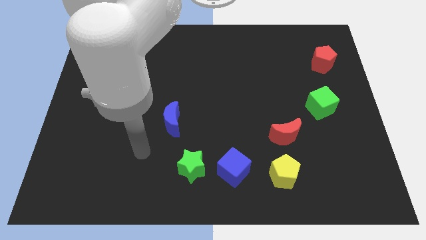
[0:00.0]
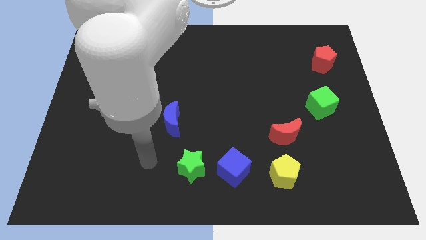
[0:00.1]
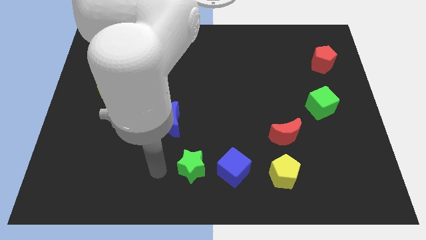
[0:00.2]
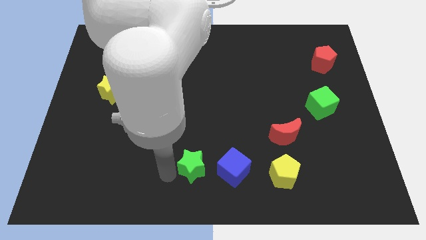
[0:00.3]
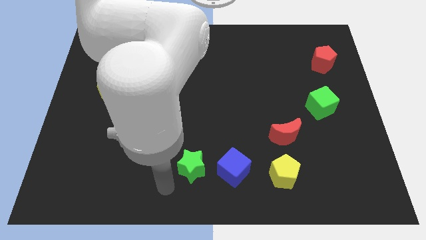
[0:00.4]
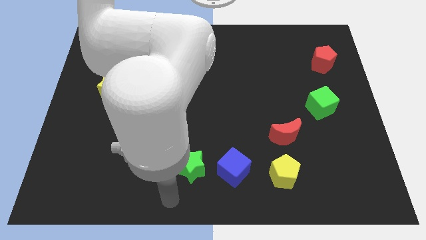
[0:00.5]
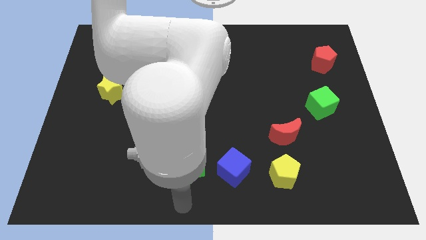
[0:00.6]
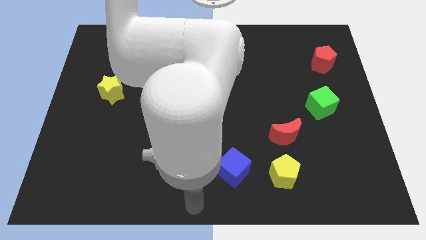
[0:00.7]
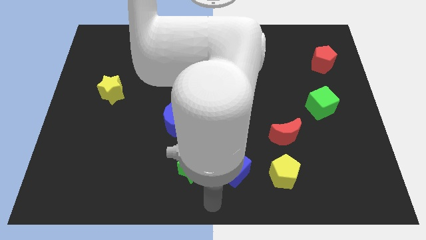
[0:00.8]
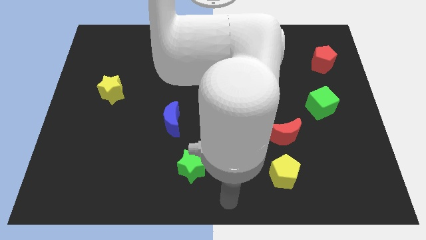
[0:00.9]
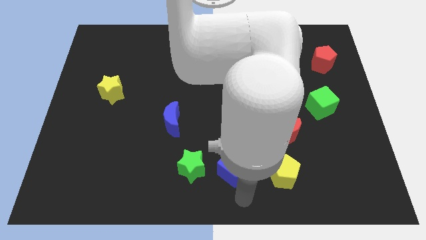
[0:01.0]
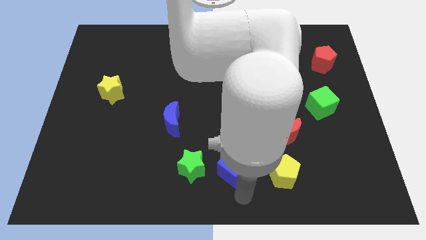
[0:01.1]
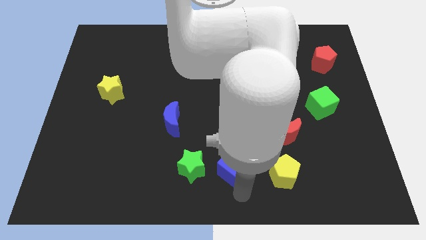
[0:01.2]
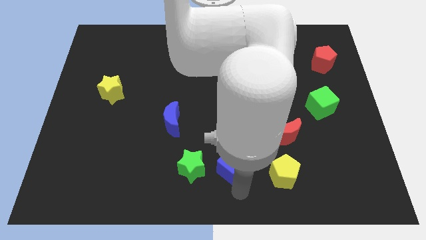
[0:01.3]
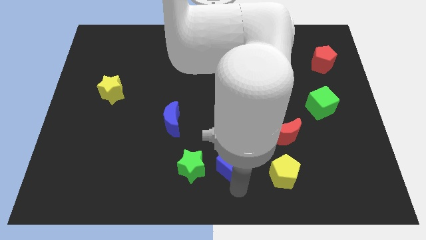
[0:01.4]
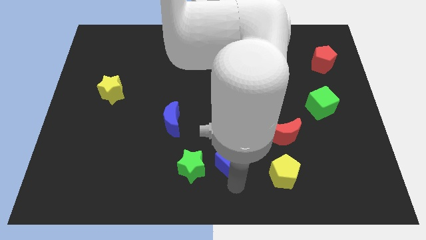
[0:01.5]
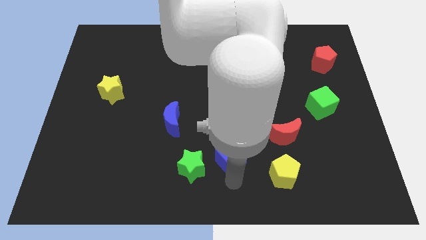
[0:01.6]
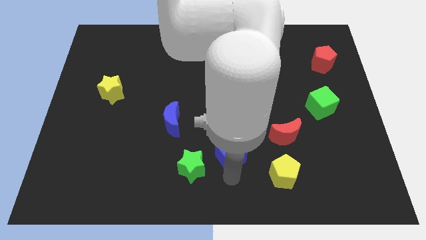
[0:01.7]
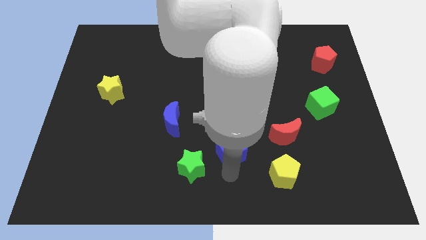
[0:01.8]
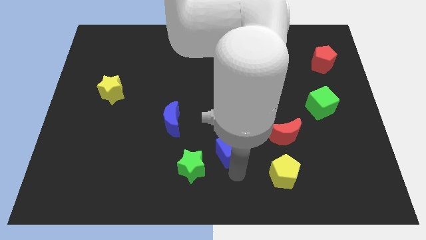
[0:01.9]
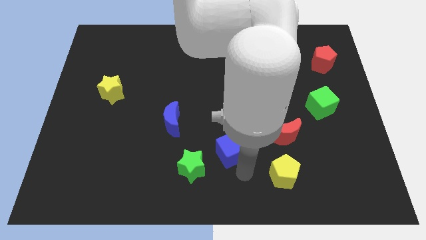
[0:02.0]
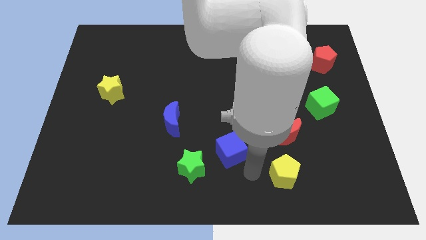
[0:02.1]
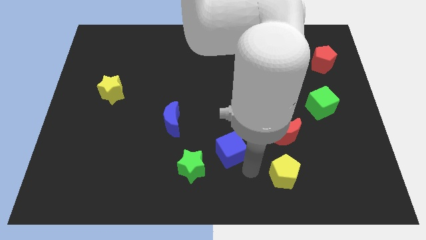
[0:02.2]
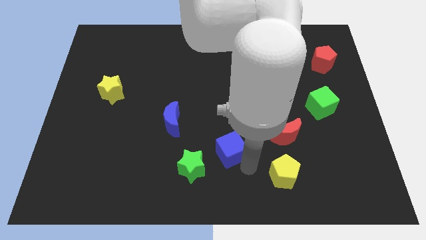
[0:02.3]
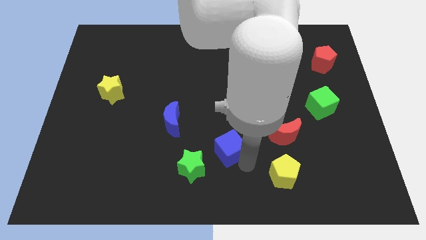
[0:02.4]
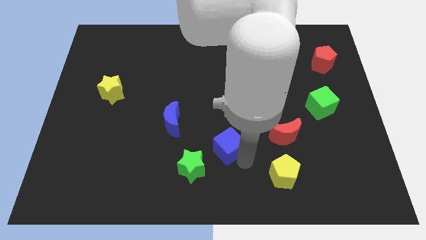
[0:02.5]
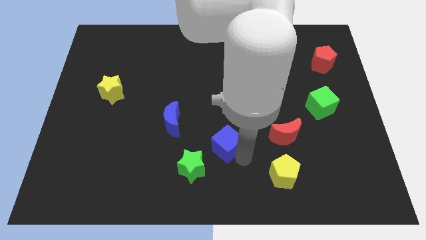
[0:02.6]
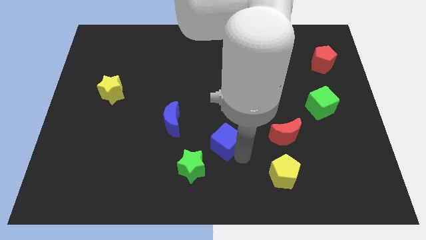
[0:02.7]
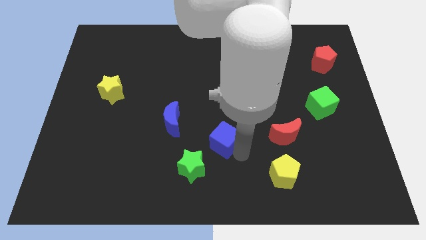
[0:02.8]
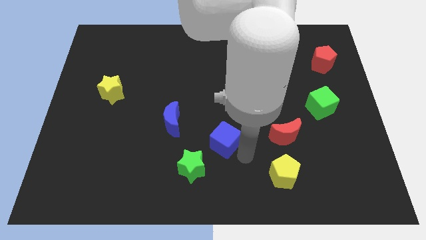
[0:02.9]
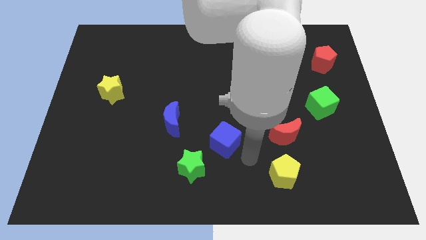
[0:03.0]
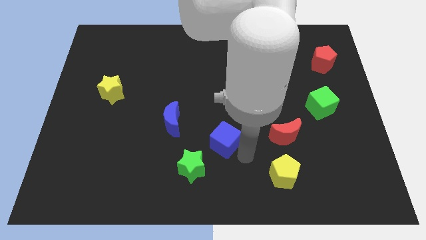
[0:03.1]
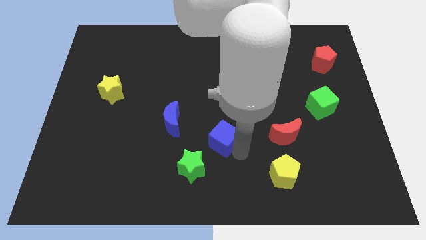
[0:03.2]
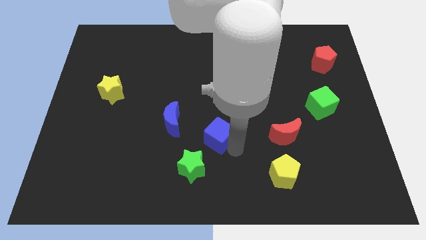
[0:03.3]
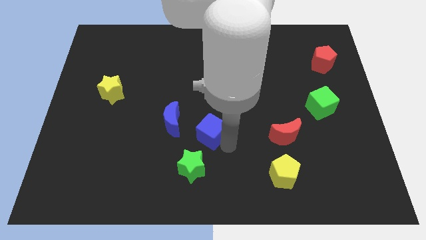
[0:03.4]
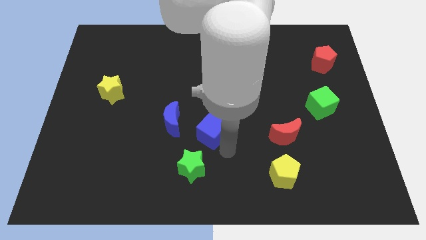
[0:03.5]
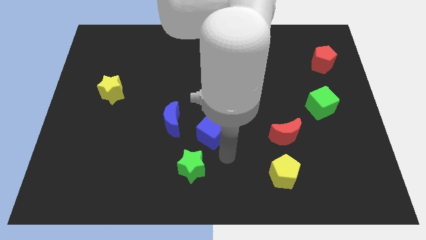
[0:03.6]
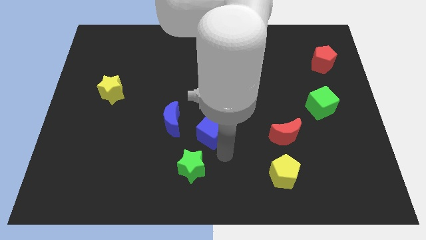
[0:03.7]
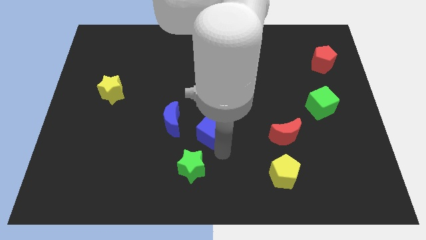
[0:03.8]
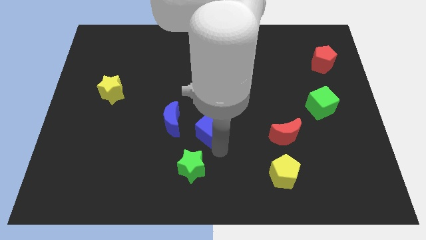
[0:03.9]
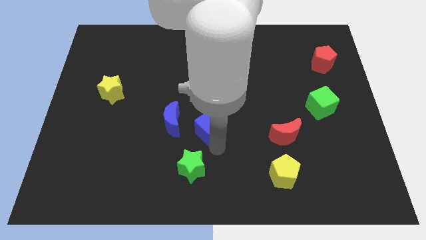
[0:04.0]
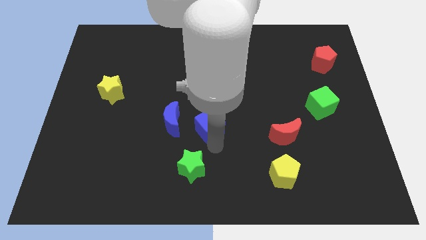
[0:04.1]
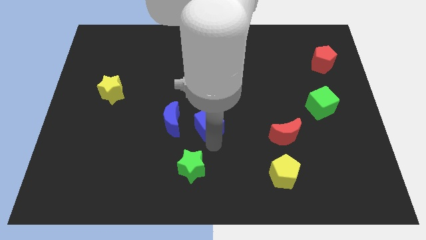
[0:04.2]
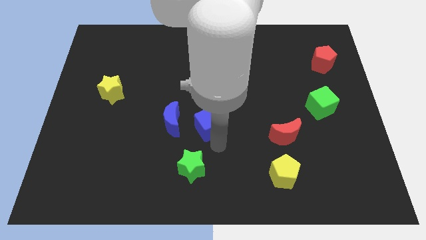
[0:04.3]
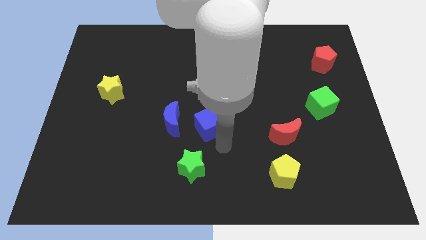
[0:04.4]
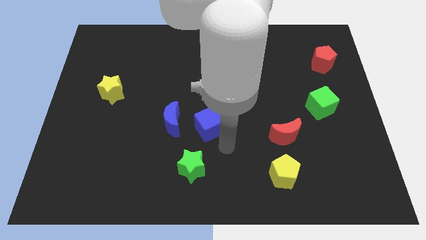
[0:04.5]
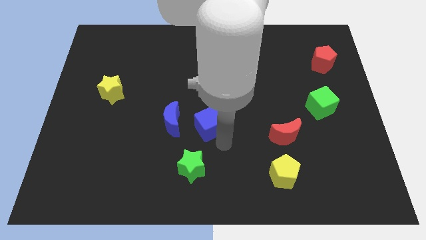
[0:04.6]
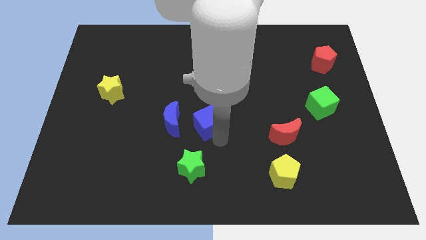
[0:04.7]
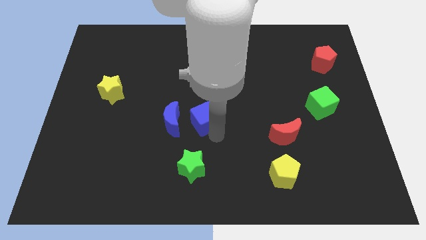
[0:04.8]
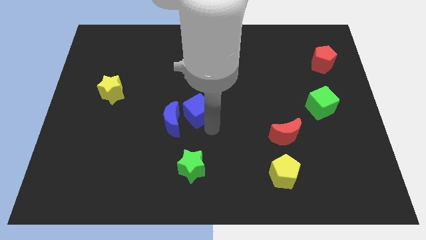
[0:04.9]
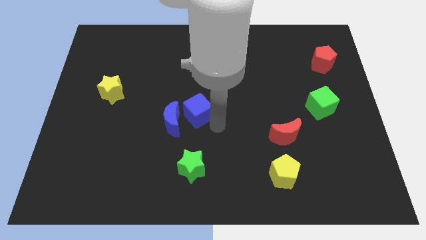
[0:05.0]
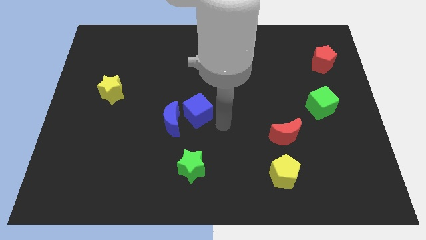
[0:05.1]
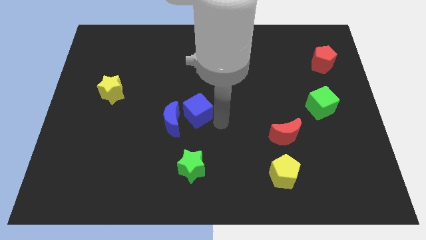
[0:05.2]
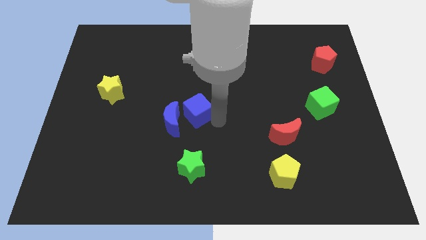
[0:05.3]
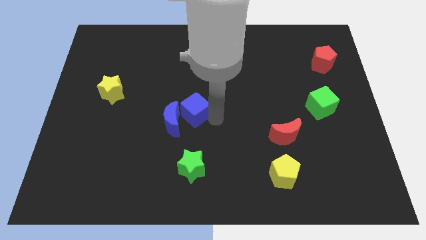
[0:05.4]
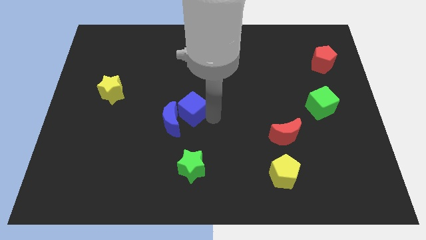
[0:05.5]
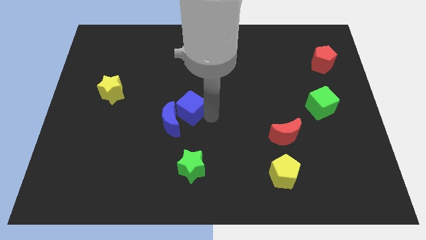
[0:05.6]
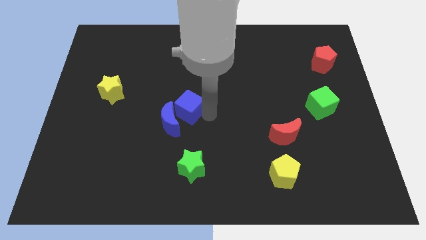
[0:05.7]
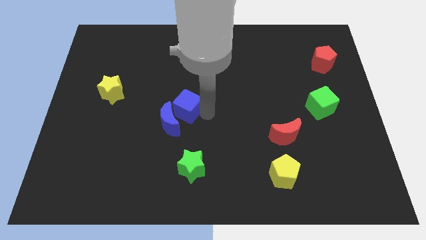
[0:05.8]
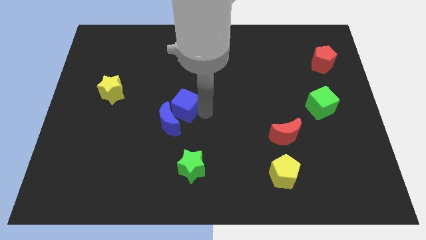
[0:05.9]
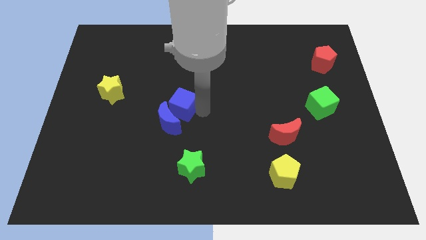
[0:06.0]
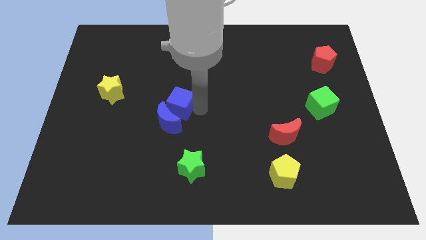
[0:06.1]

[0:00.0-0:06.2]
push the blue cube up and to the left diagonally

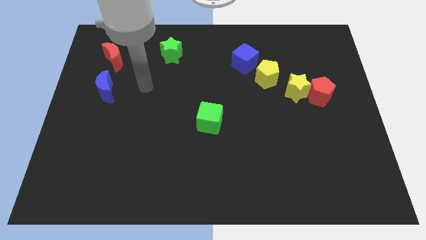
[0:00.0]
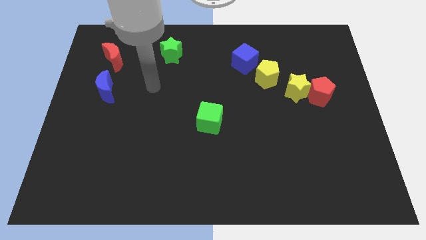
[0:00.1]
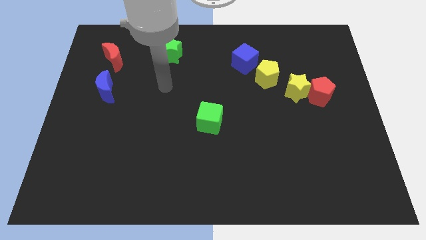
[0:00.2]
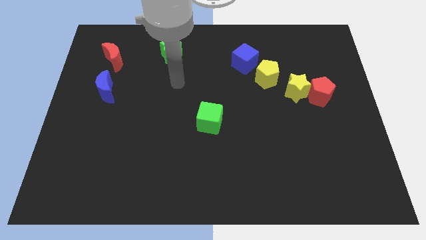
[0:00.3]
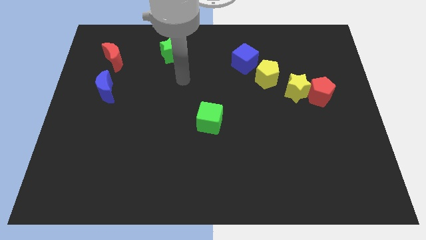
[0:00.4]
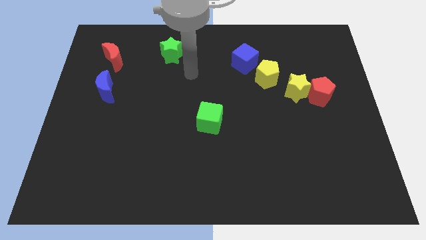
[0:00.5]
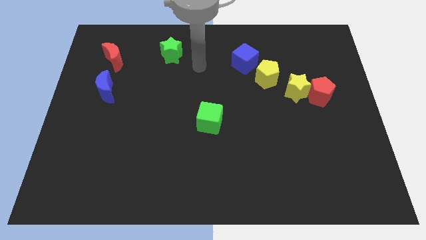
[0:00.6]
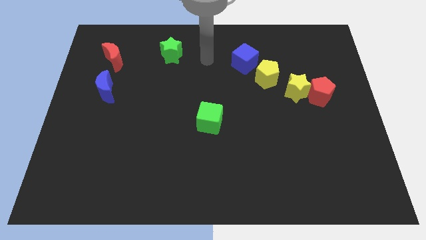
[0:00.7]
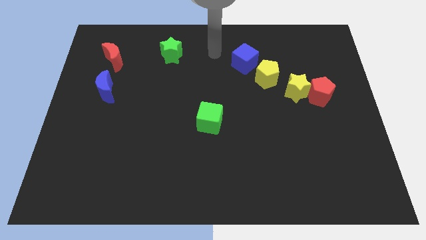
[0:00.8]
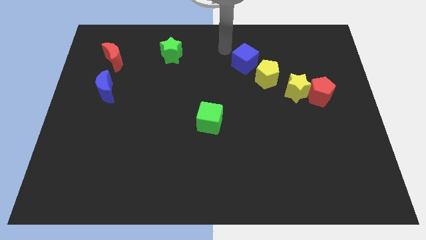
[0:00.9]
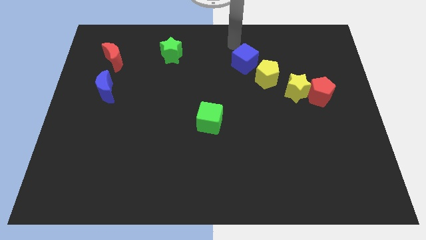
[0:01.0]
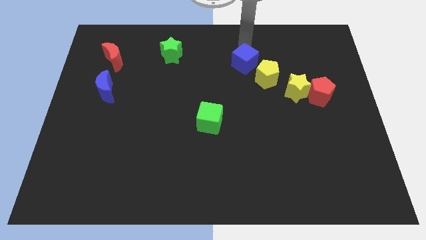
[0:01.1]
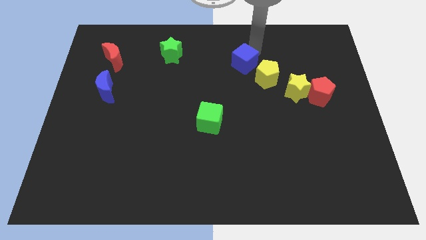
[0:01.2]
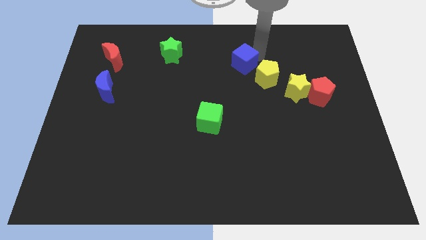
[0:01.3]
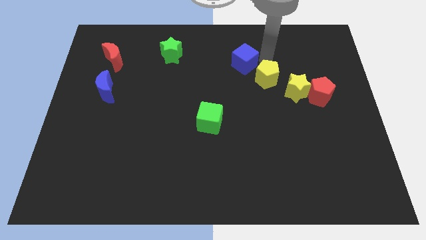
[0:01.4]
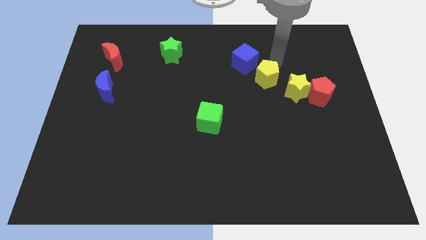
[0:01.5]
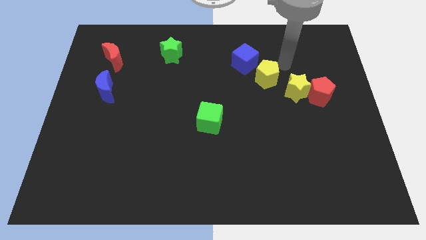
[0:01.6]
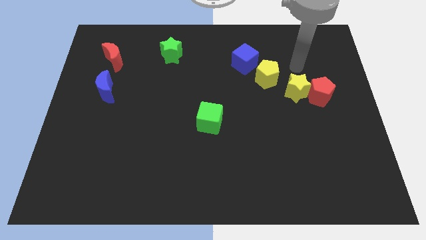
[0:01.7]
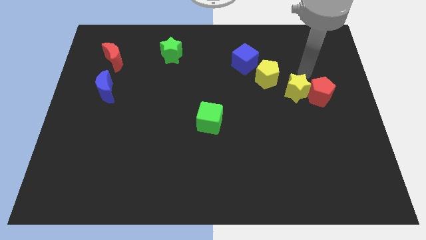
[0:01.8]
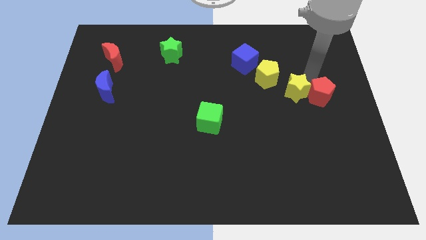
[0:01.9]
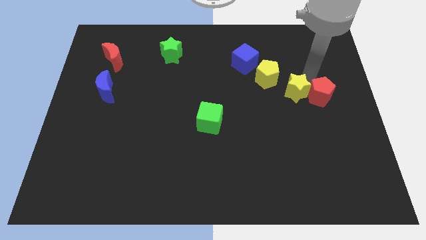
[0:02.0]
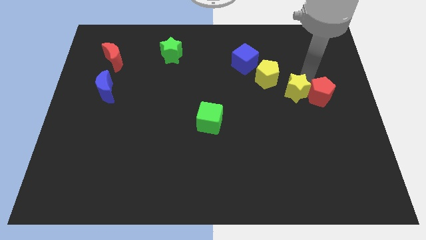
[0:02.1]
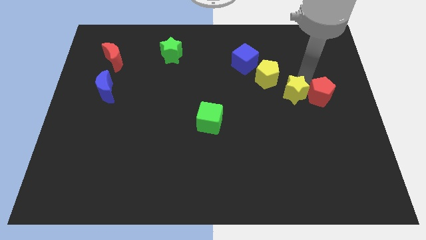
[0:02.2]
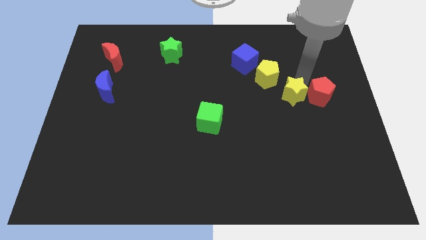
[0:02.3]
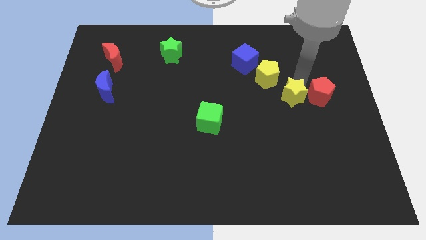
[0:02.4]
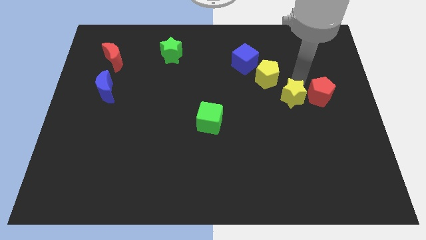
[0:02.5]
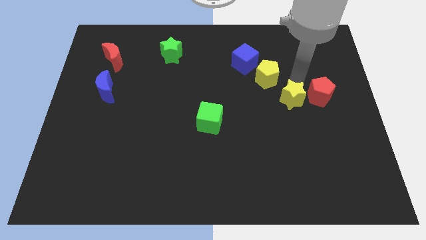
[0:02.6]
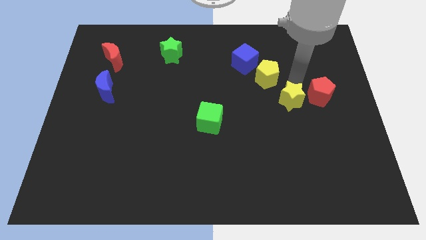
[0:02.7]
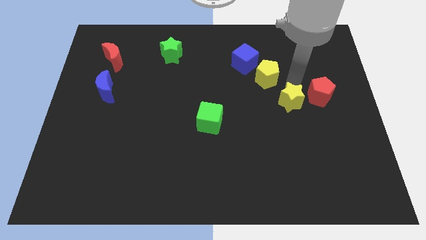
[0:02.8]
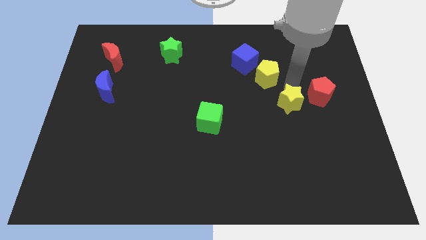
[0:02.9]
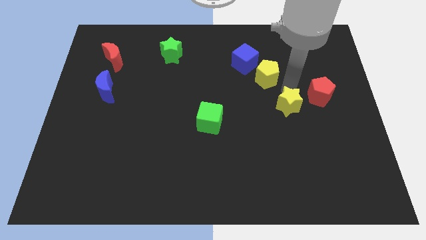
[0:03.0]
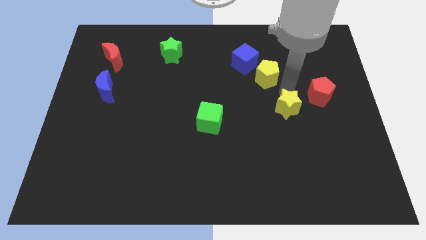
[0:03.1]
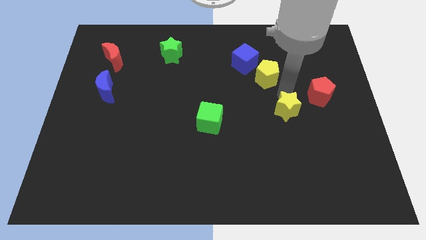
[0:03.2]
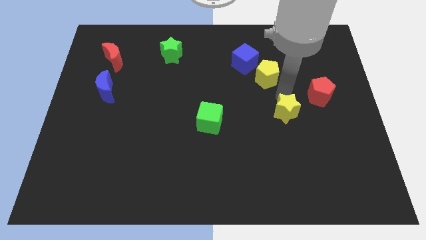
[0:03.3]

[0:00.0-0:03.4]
slightly move the yellow star diagonally downwards and left
